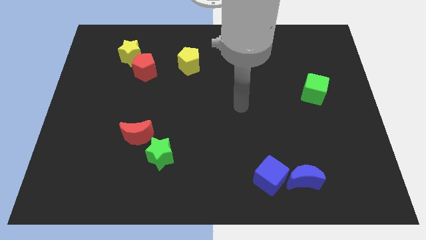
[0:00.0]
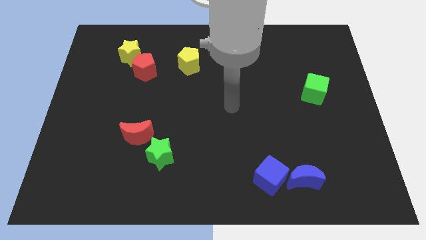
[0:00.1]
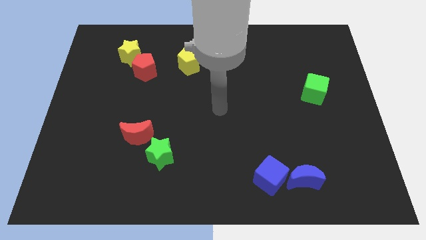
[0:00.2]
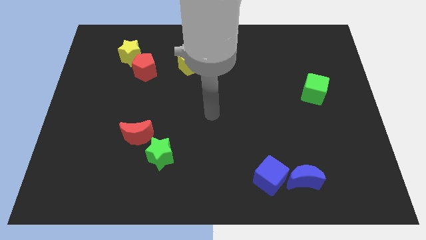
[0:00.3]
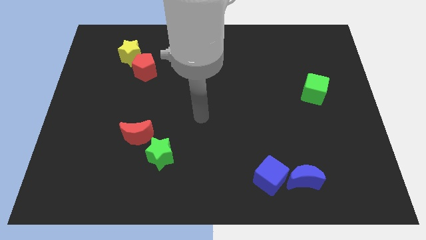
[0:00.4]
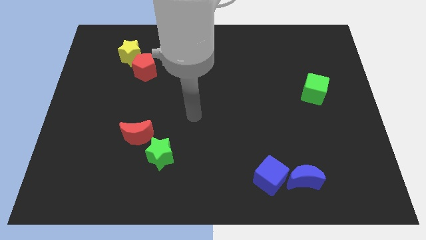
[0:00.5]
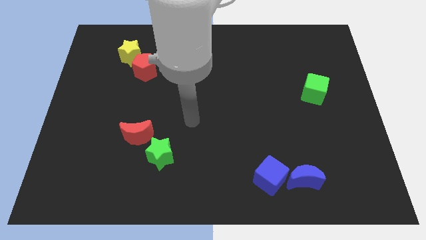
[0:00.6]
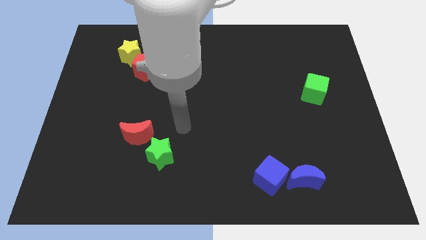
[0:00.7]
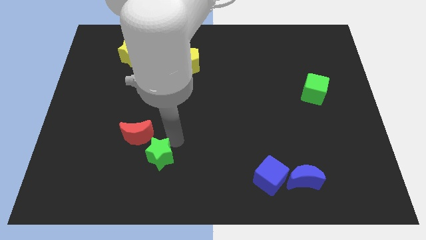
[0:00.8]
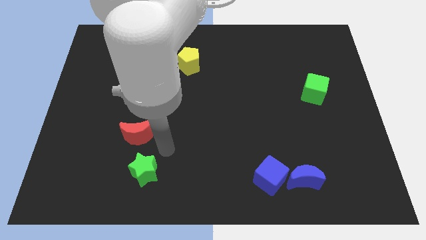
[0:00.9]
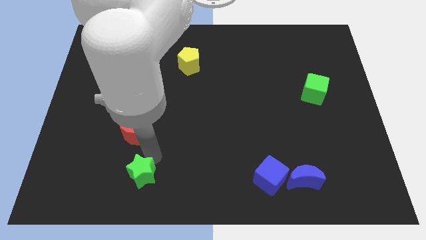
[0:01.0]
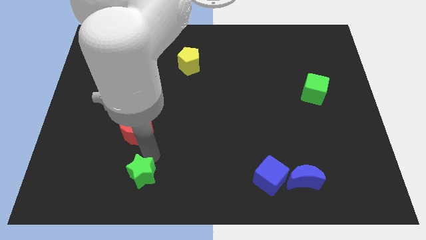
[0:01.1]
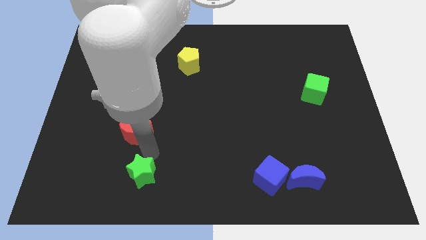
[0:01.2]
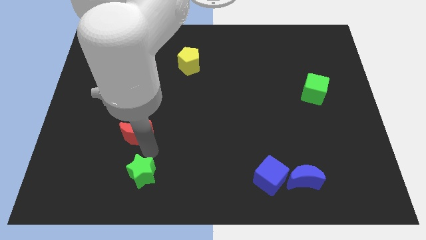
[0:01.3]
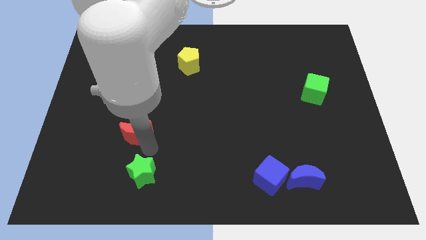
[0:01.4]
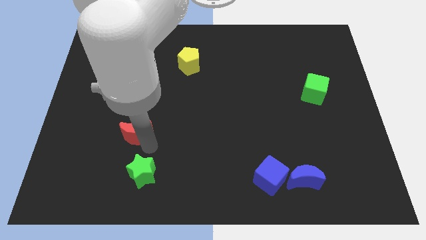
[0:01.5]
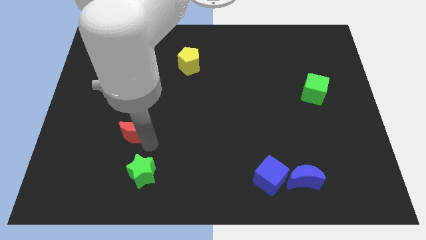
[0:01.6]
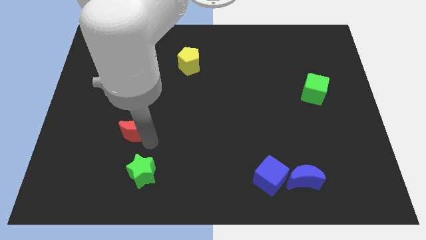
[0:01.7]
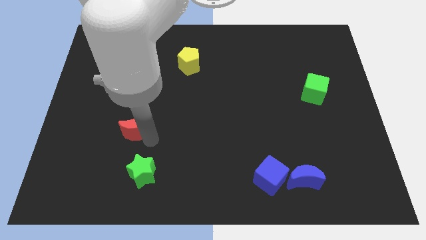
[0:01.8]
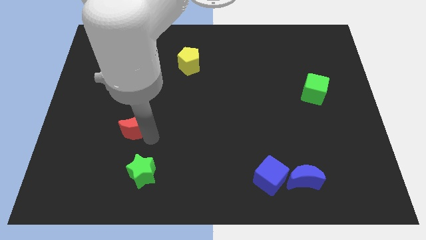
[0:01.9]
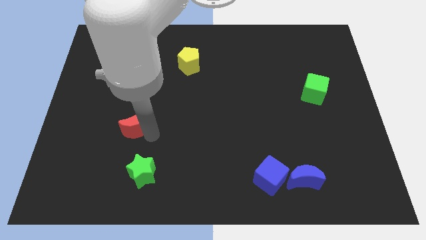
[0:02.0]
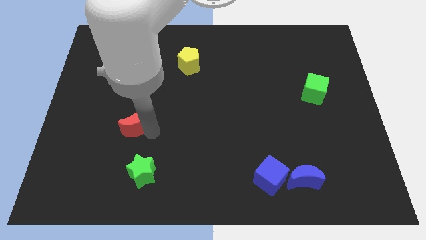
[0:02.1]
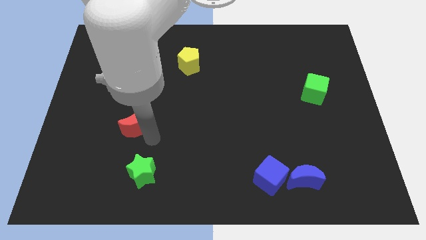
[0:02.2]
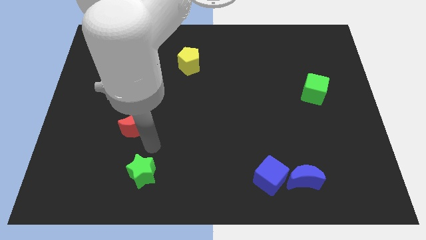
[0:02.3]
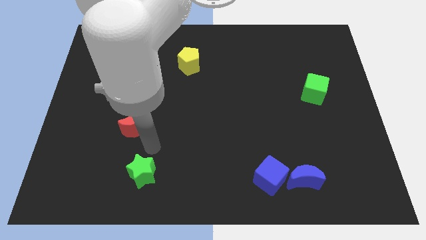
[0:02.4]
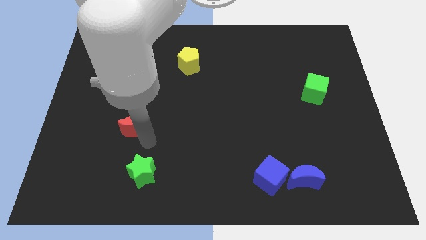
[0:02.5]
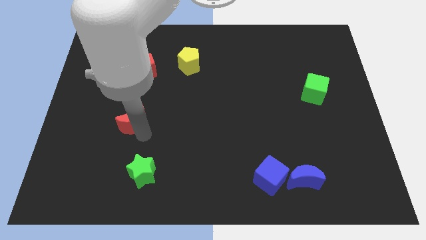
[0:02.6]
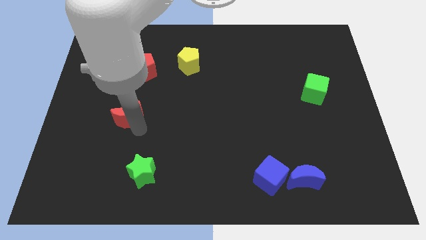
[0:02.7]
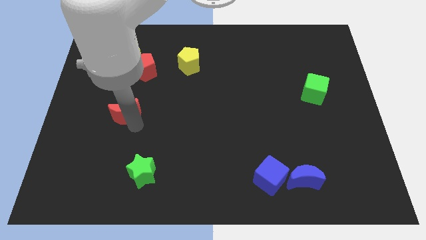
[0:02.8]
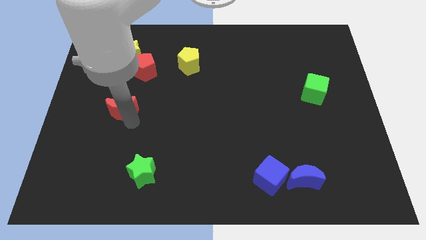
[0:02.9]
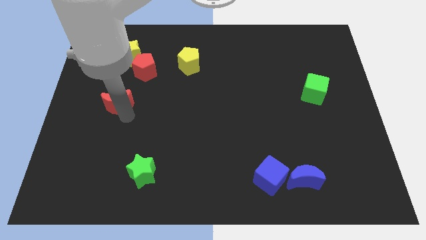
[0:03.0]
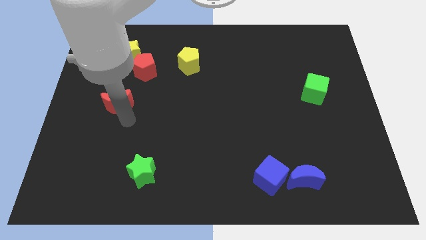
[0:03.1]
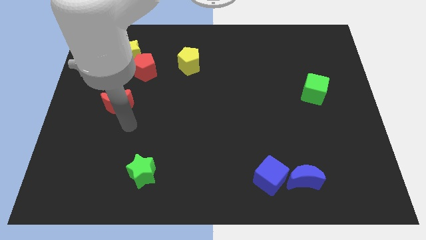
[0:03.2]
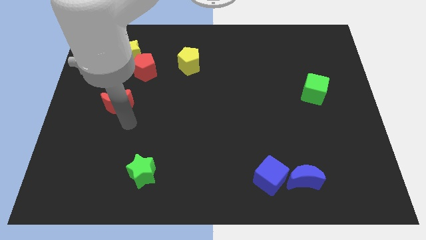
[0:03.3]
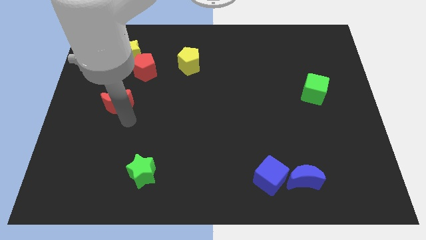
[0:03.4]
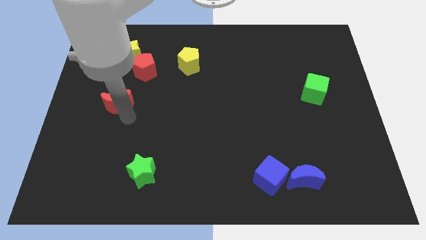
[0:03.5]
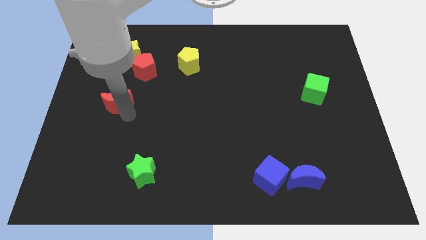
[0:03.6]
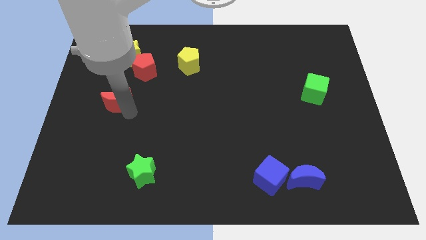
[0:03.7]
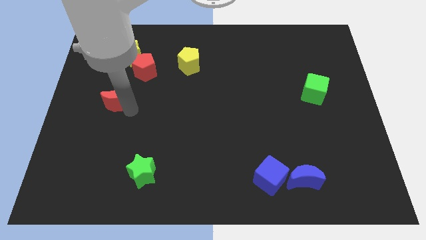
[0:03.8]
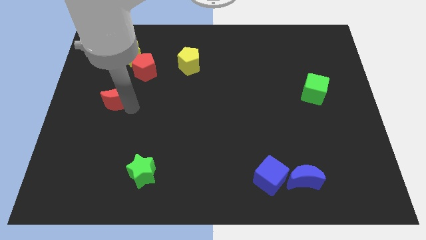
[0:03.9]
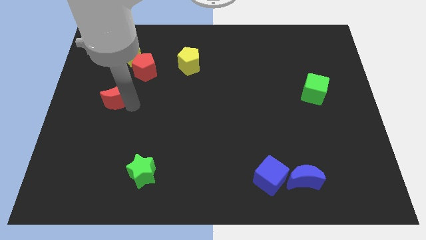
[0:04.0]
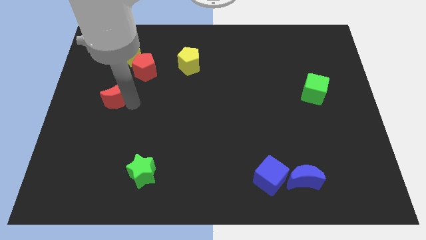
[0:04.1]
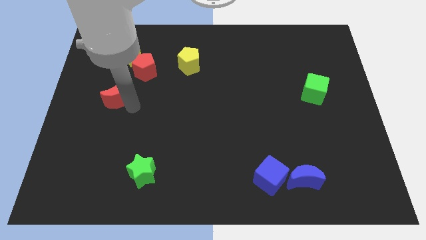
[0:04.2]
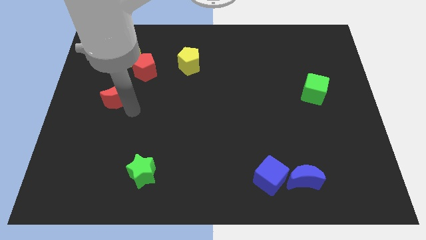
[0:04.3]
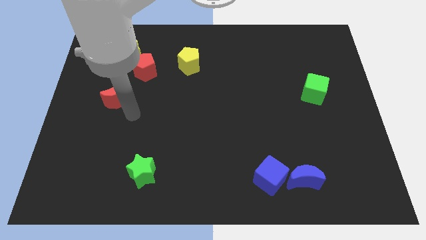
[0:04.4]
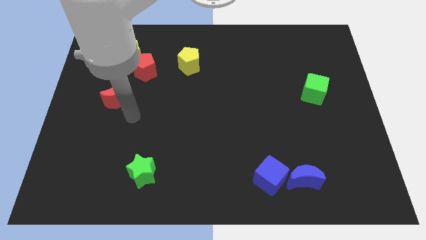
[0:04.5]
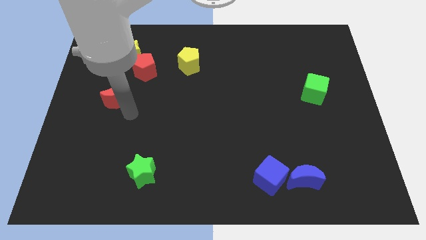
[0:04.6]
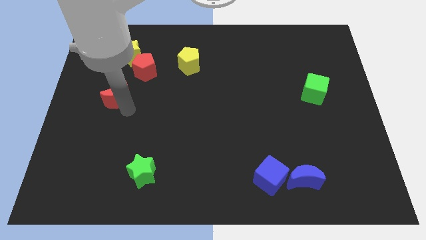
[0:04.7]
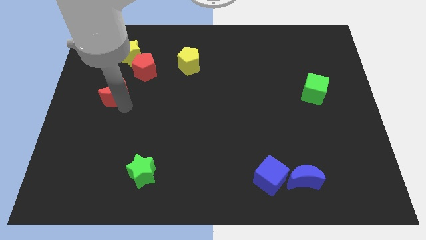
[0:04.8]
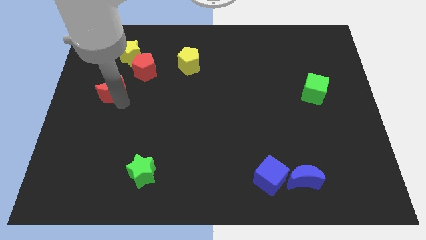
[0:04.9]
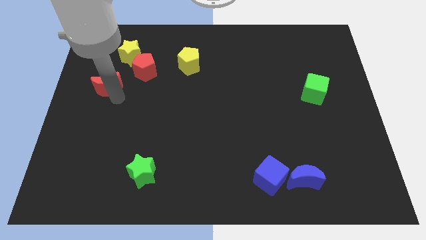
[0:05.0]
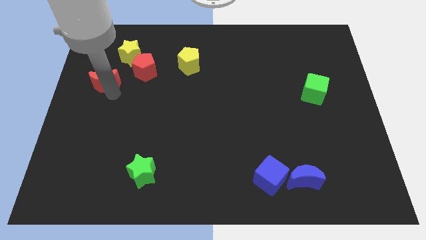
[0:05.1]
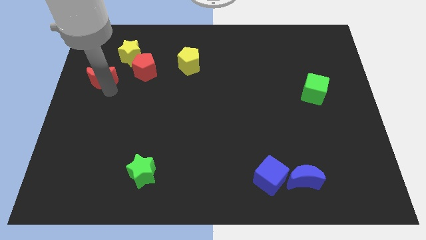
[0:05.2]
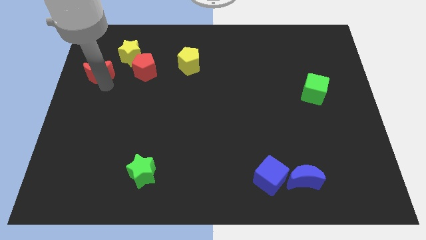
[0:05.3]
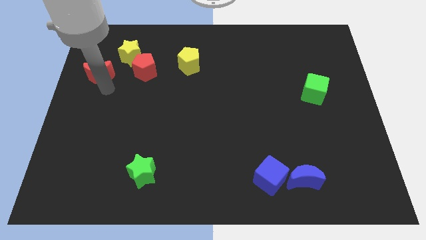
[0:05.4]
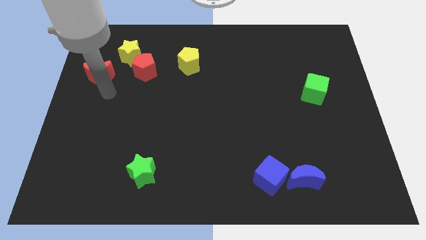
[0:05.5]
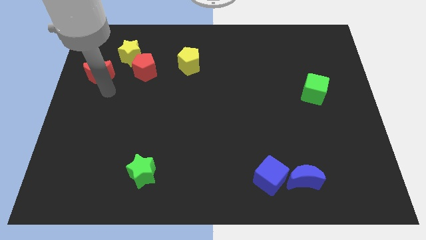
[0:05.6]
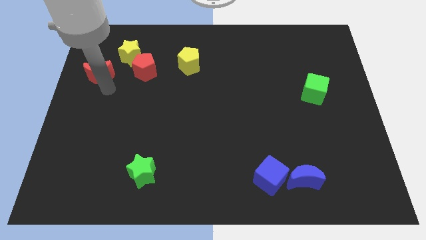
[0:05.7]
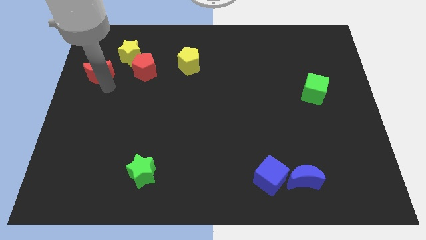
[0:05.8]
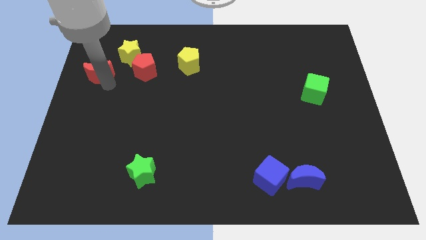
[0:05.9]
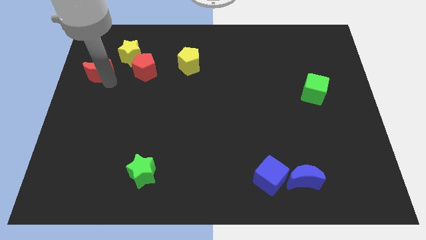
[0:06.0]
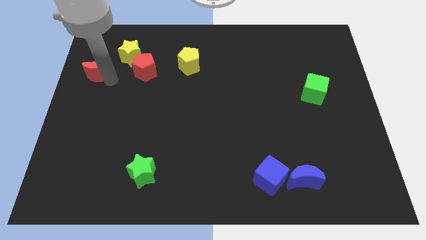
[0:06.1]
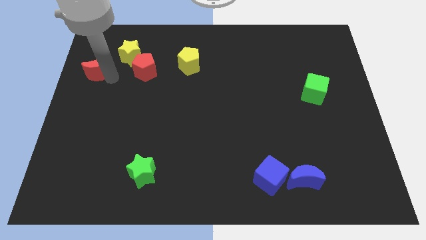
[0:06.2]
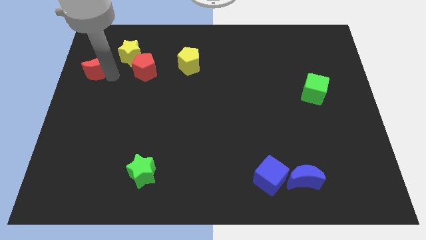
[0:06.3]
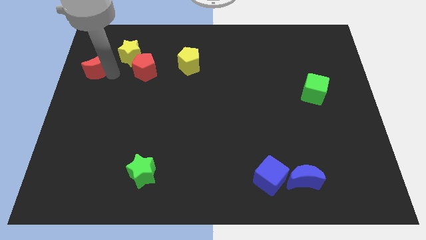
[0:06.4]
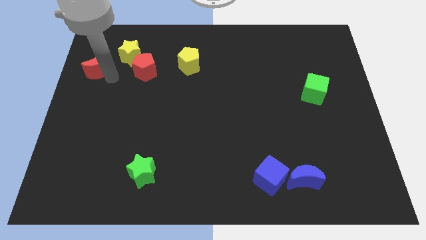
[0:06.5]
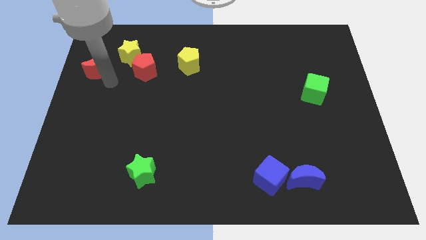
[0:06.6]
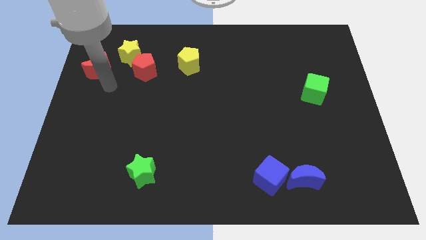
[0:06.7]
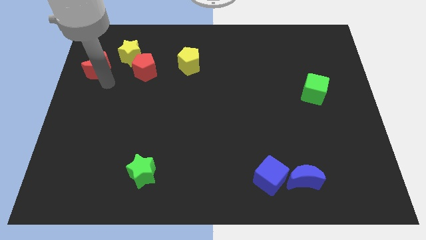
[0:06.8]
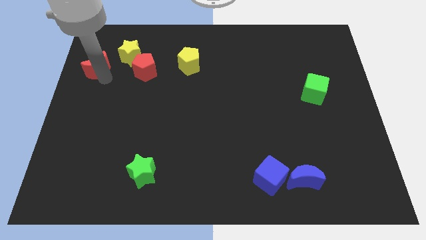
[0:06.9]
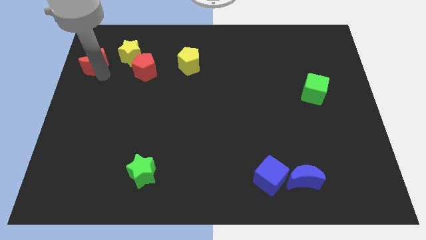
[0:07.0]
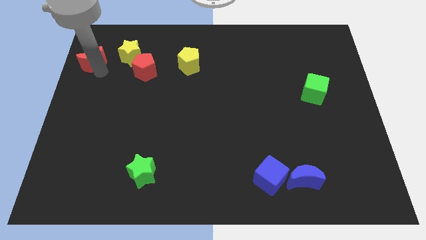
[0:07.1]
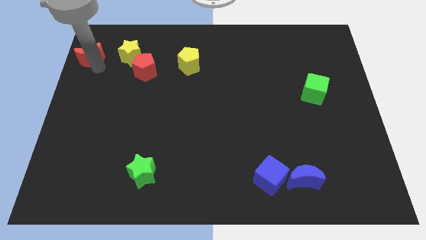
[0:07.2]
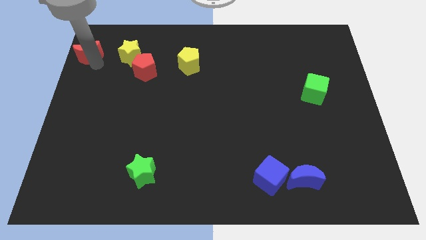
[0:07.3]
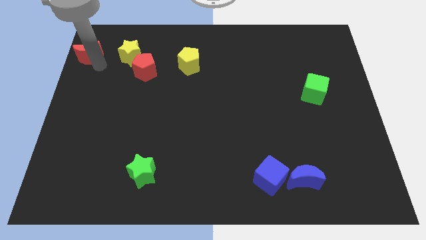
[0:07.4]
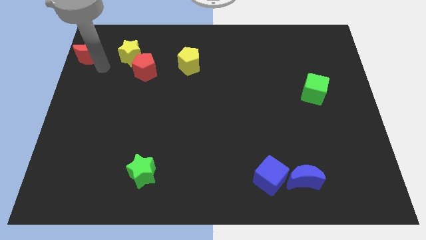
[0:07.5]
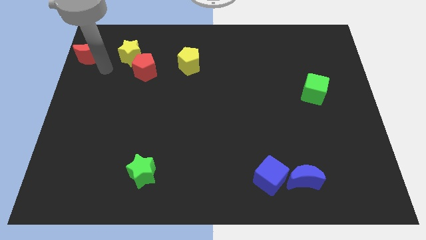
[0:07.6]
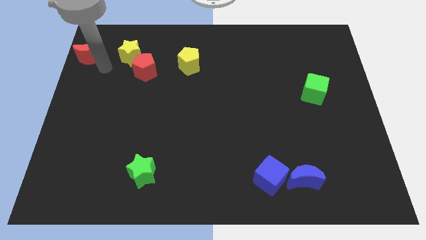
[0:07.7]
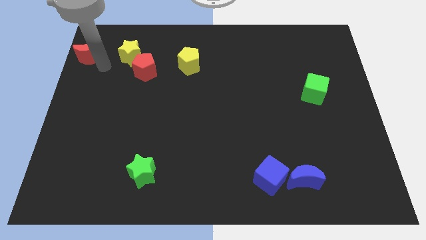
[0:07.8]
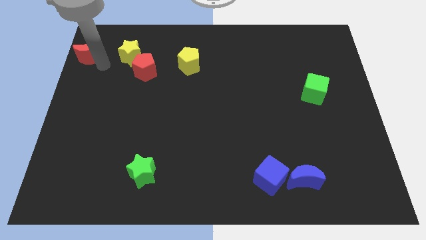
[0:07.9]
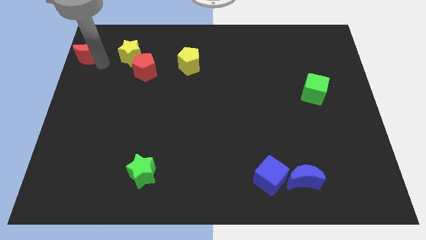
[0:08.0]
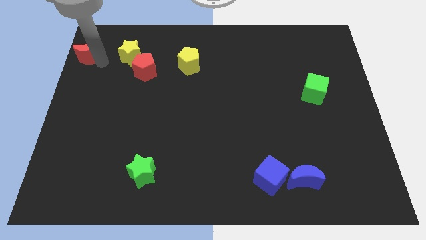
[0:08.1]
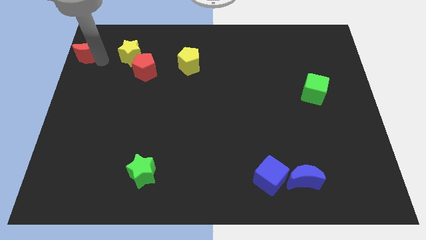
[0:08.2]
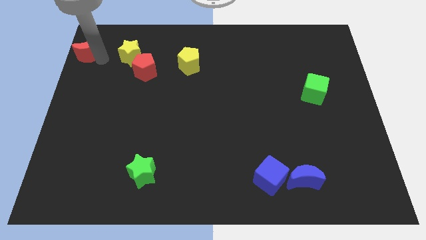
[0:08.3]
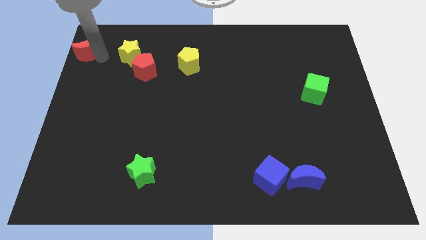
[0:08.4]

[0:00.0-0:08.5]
slide the red moon to the top left
